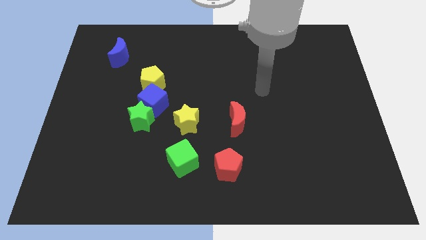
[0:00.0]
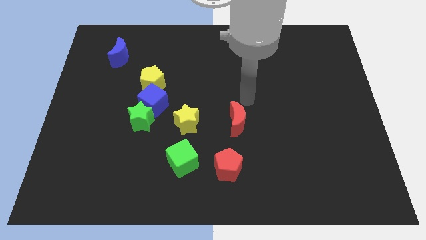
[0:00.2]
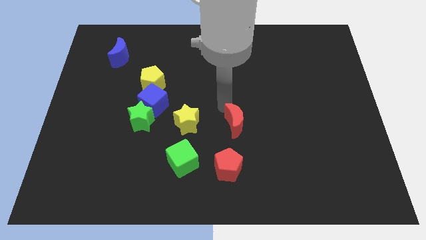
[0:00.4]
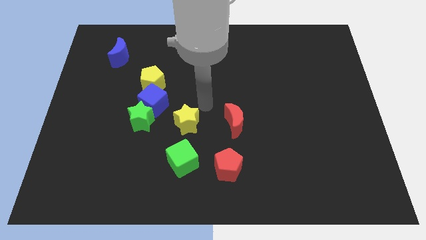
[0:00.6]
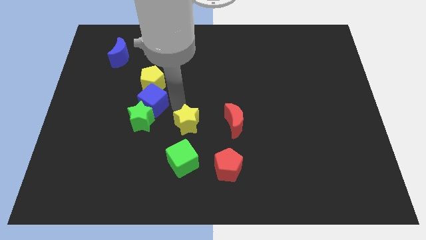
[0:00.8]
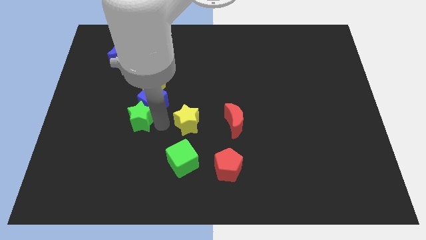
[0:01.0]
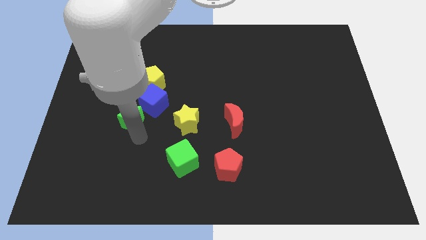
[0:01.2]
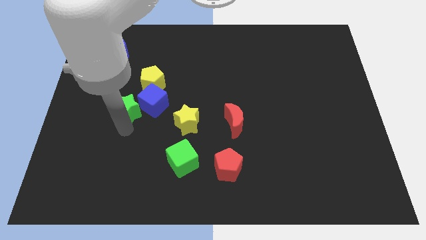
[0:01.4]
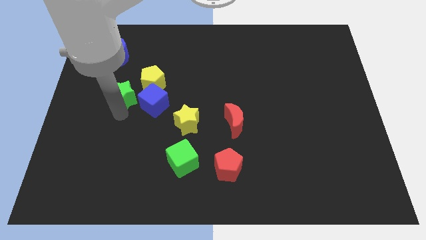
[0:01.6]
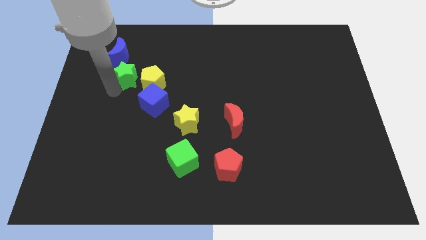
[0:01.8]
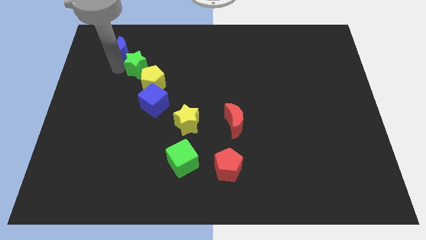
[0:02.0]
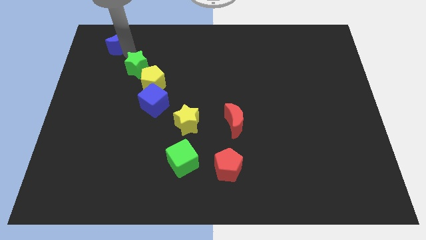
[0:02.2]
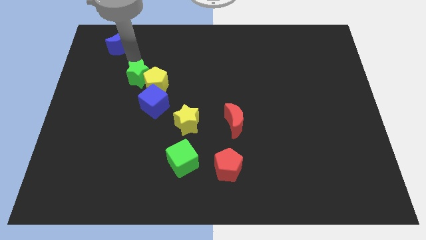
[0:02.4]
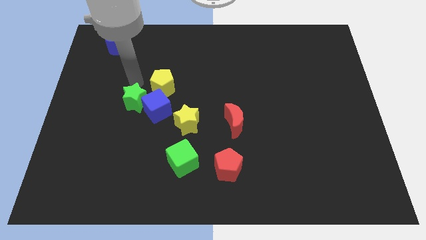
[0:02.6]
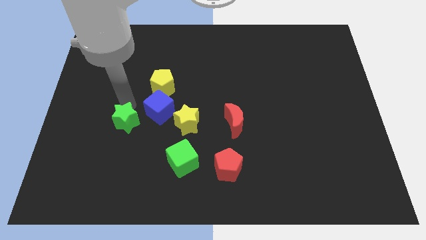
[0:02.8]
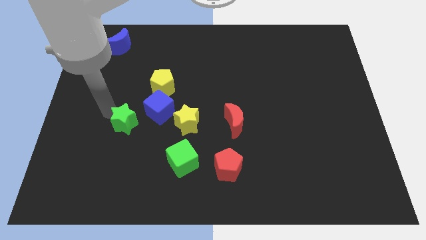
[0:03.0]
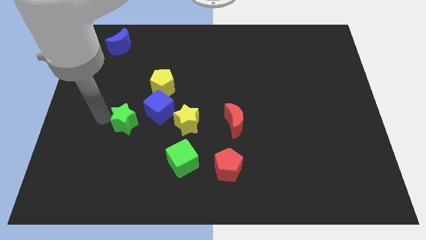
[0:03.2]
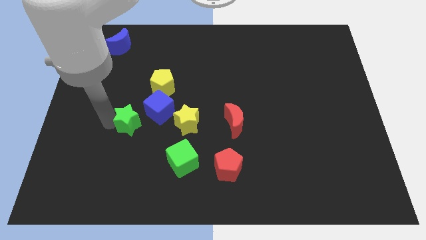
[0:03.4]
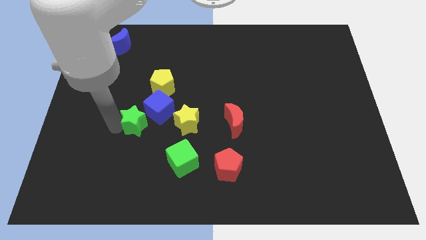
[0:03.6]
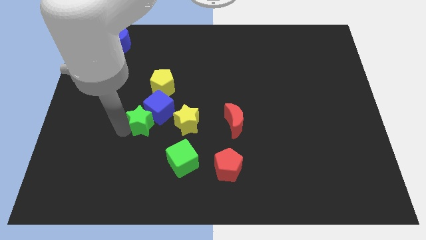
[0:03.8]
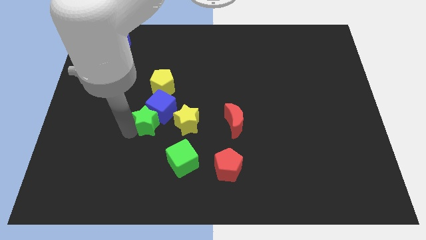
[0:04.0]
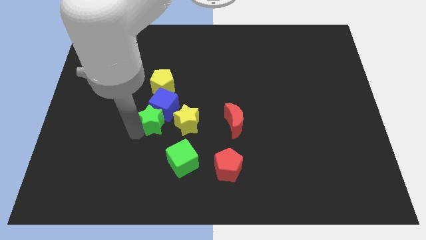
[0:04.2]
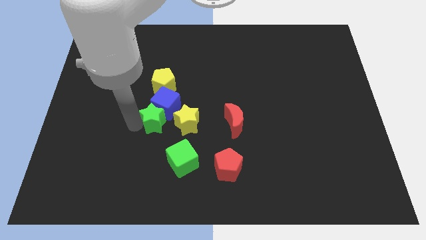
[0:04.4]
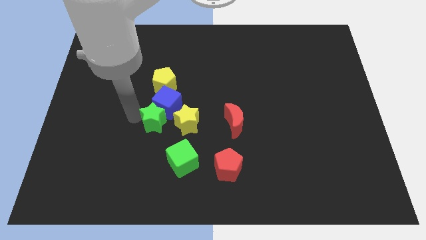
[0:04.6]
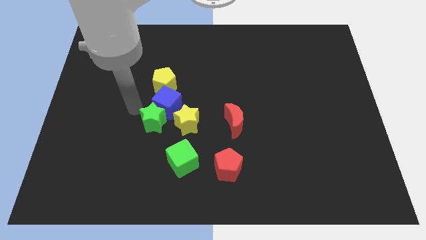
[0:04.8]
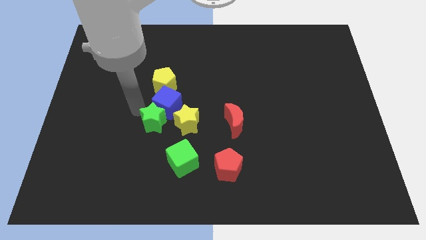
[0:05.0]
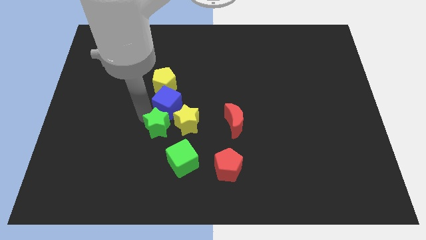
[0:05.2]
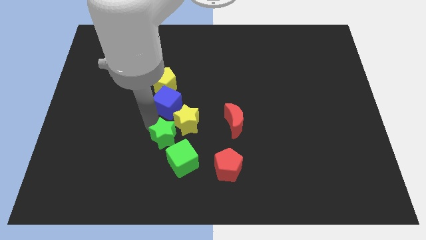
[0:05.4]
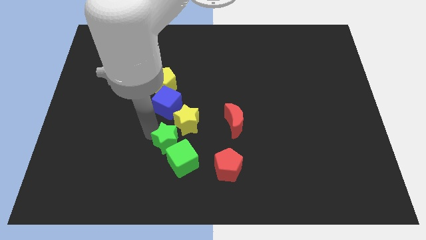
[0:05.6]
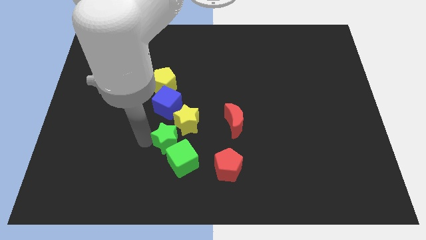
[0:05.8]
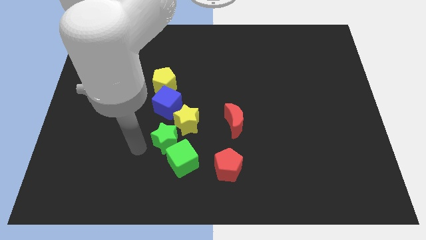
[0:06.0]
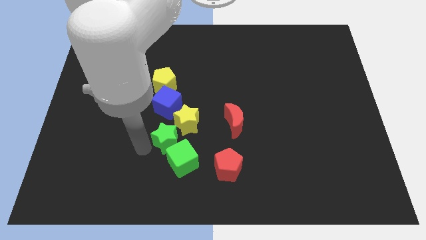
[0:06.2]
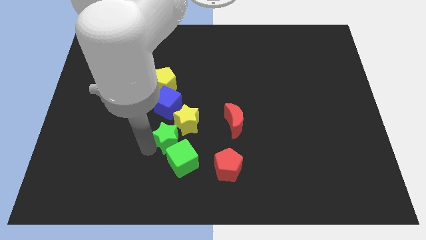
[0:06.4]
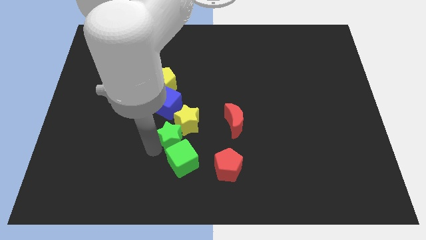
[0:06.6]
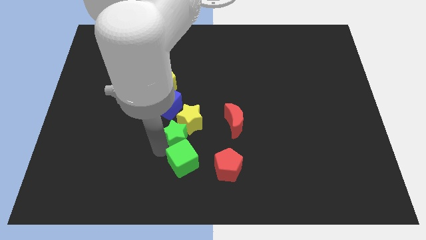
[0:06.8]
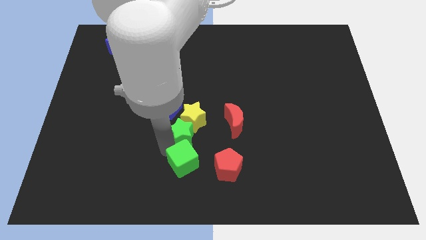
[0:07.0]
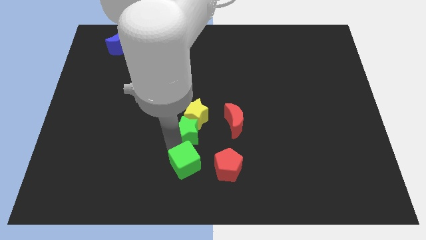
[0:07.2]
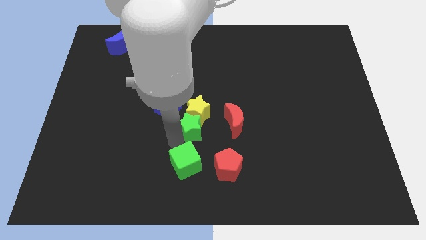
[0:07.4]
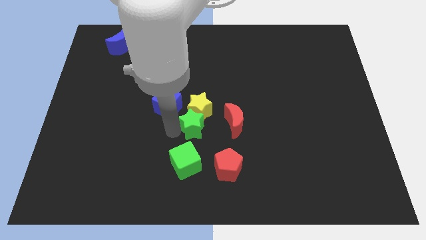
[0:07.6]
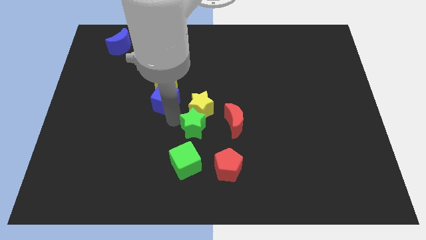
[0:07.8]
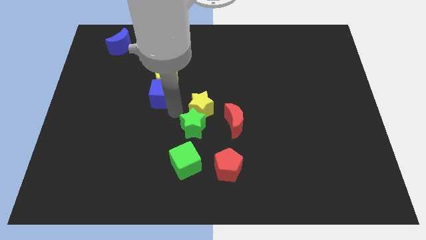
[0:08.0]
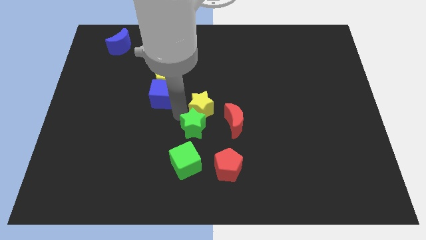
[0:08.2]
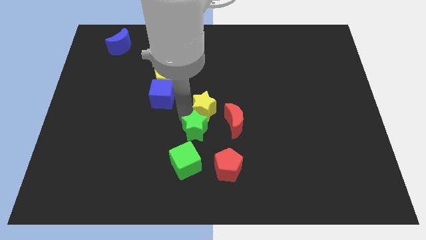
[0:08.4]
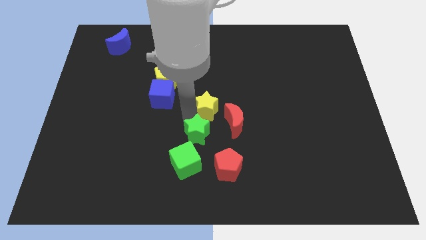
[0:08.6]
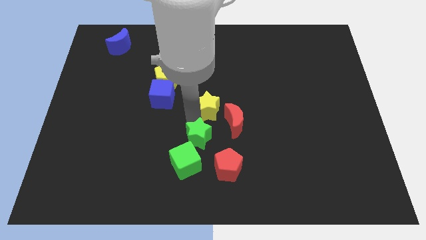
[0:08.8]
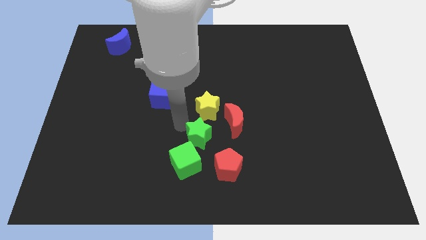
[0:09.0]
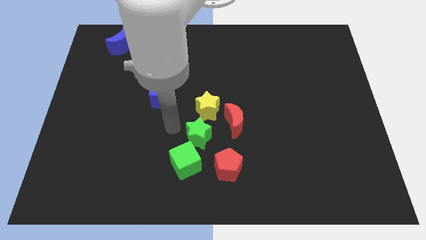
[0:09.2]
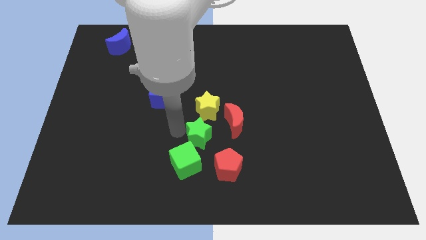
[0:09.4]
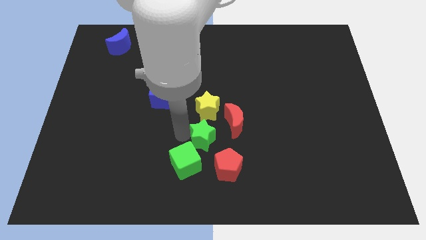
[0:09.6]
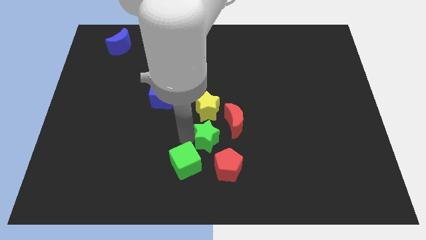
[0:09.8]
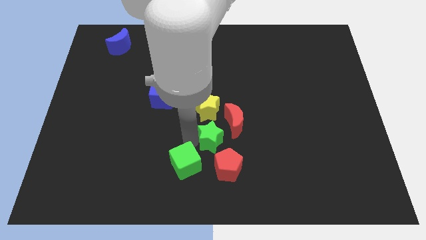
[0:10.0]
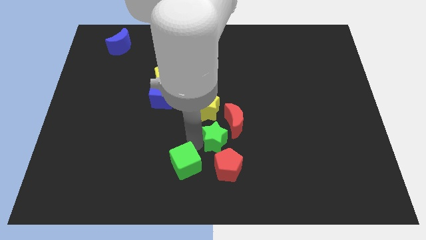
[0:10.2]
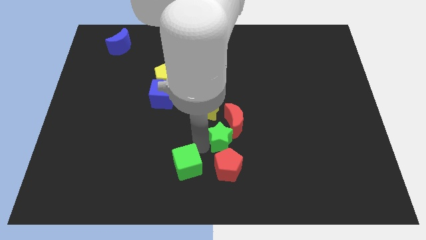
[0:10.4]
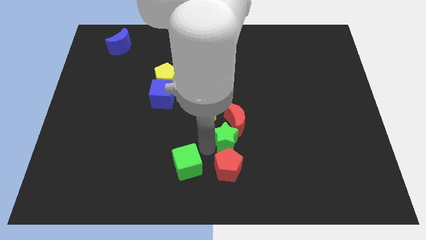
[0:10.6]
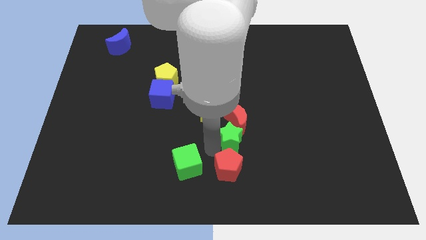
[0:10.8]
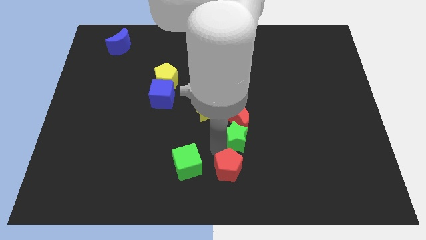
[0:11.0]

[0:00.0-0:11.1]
slide the green star to the bottom right of the red moon

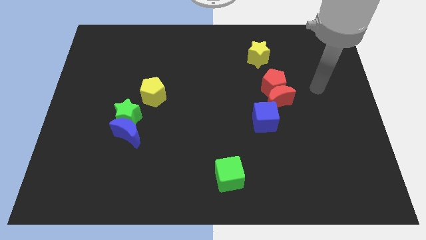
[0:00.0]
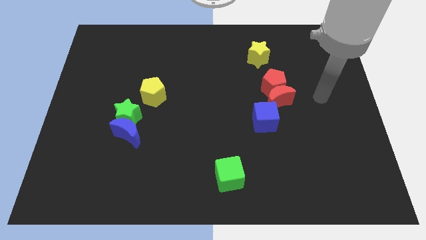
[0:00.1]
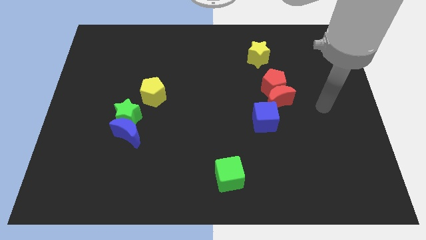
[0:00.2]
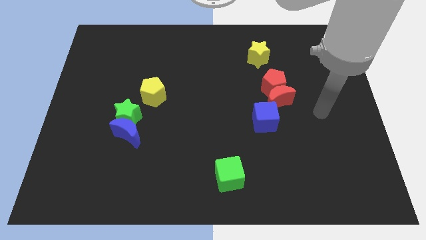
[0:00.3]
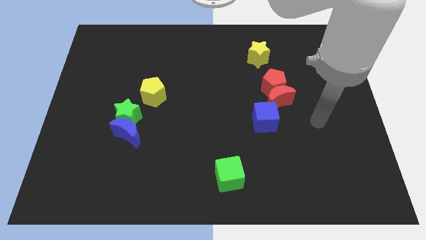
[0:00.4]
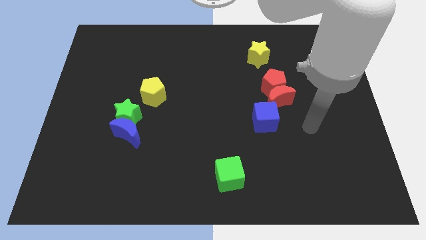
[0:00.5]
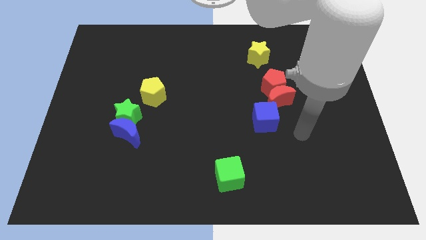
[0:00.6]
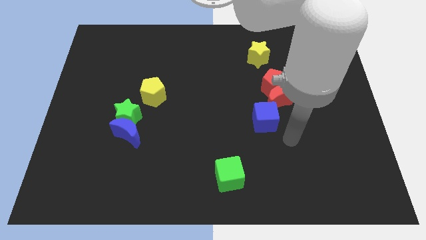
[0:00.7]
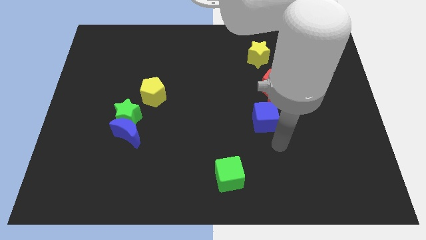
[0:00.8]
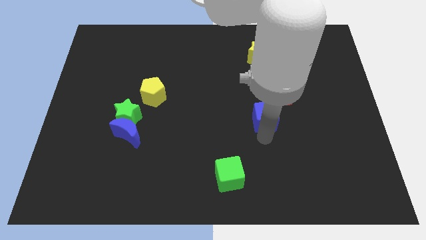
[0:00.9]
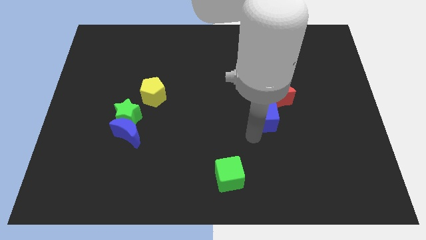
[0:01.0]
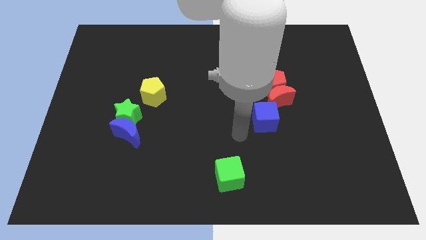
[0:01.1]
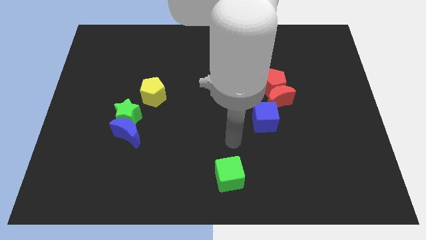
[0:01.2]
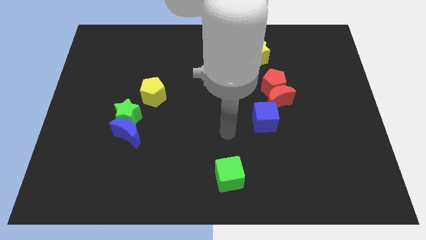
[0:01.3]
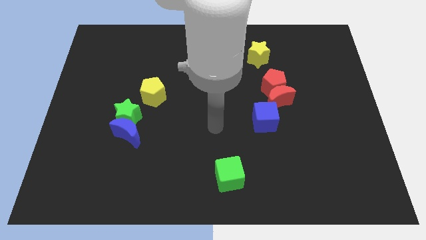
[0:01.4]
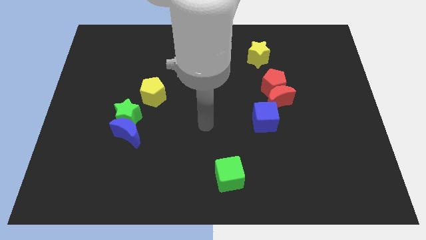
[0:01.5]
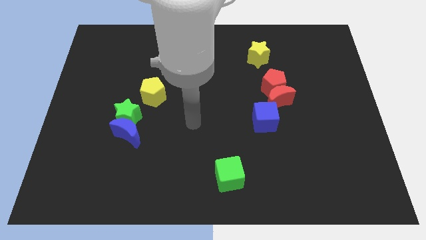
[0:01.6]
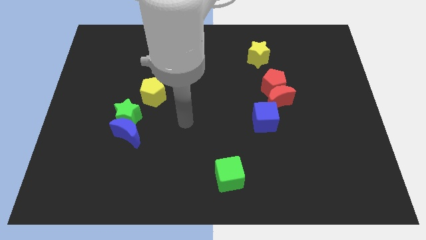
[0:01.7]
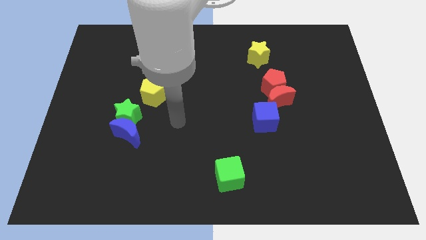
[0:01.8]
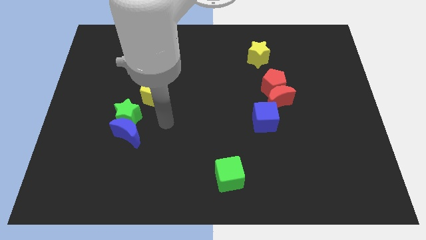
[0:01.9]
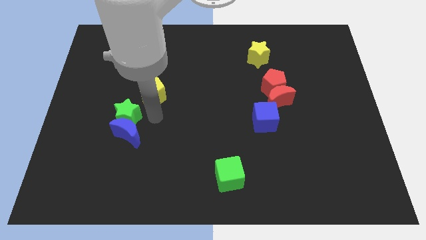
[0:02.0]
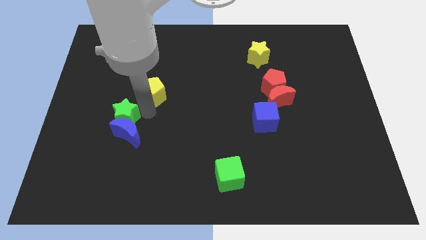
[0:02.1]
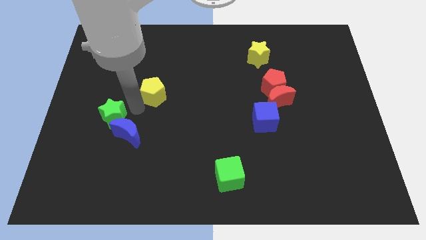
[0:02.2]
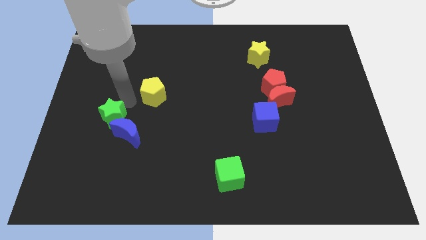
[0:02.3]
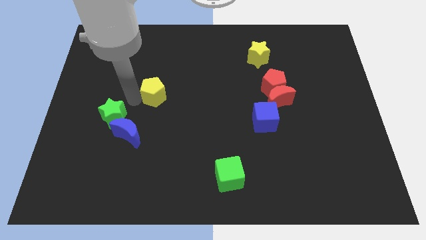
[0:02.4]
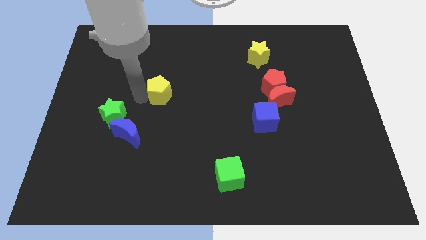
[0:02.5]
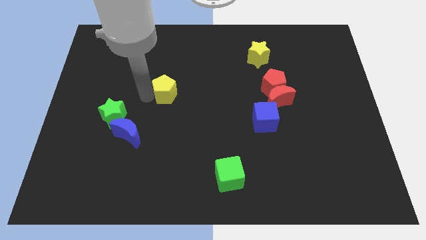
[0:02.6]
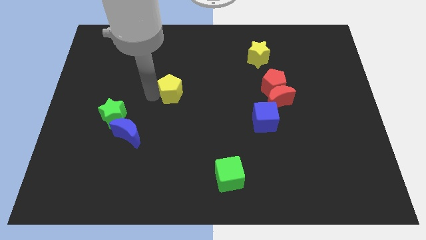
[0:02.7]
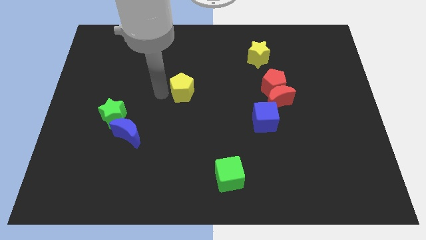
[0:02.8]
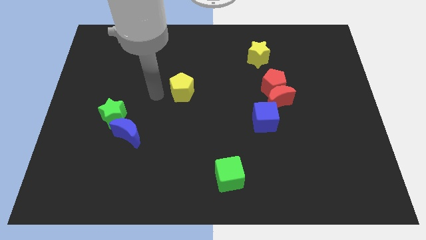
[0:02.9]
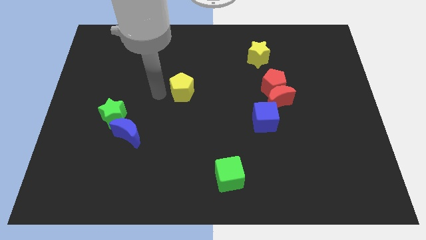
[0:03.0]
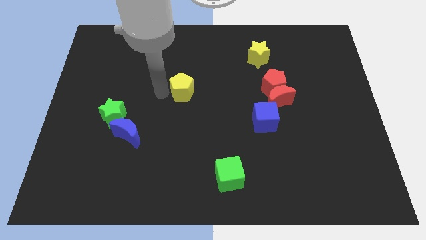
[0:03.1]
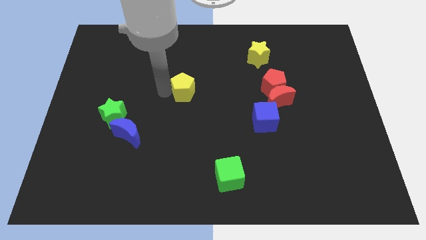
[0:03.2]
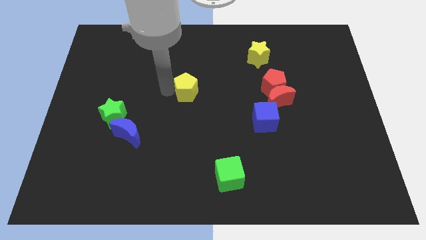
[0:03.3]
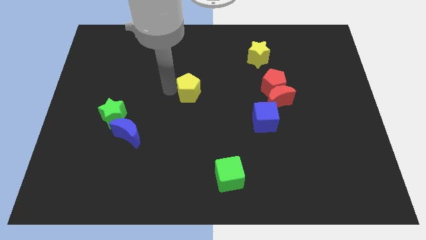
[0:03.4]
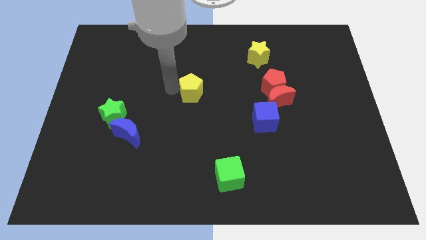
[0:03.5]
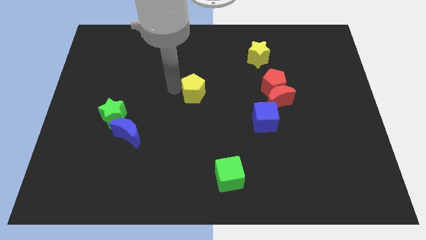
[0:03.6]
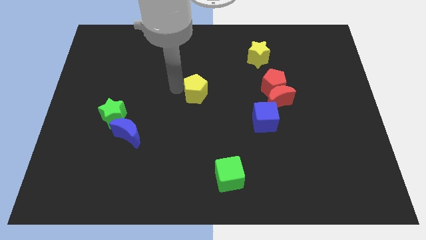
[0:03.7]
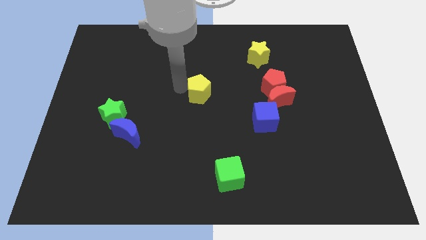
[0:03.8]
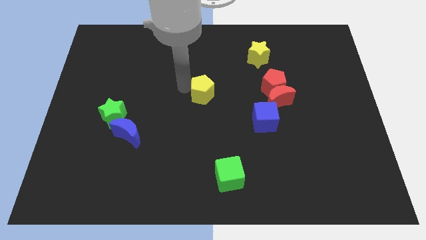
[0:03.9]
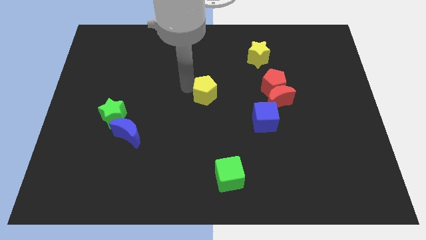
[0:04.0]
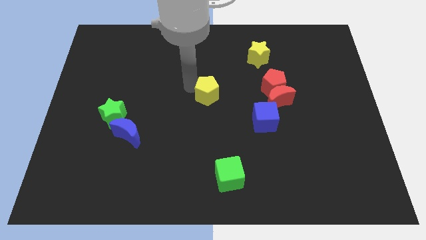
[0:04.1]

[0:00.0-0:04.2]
push the yellow pentagon left of the red pentagon
